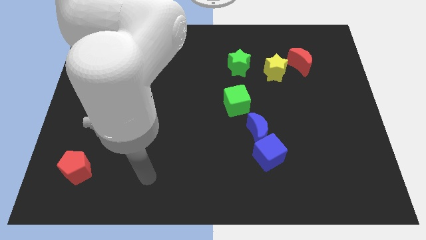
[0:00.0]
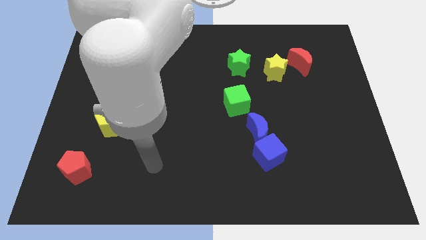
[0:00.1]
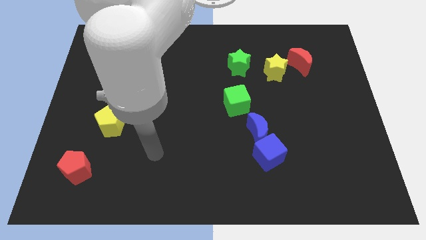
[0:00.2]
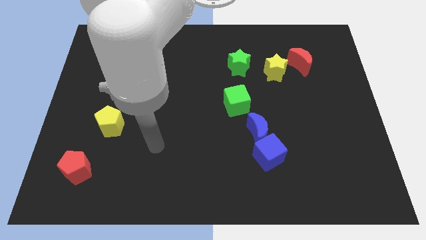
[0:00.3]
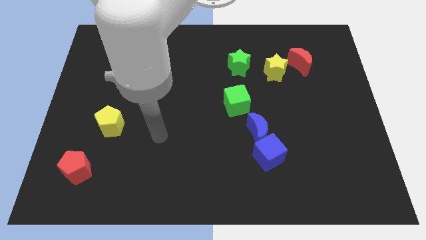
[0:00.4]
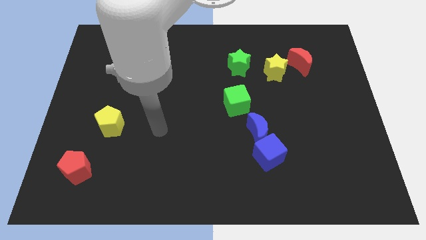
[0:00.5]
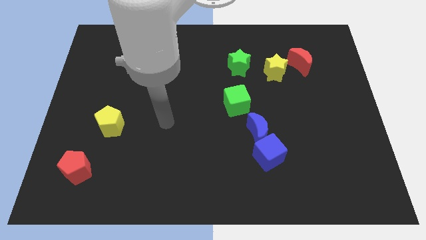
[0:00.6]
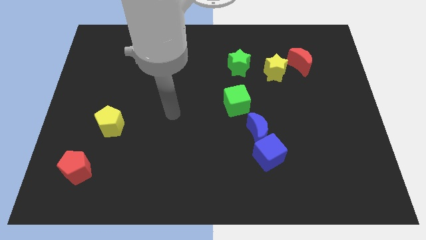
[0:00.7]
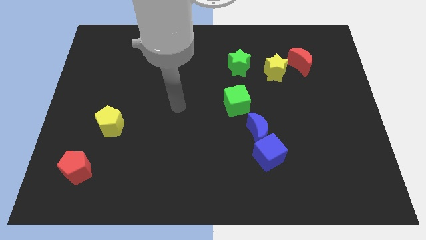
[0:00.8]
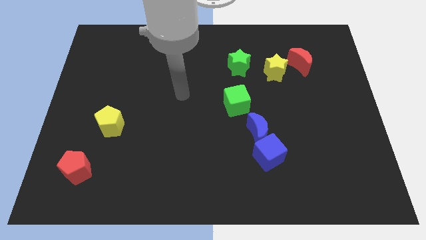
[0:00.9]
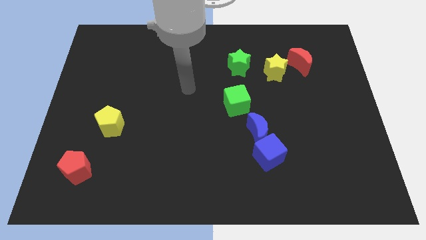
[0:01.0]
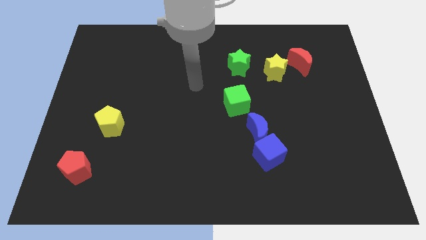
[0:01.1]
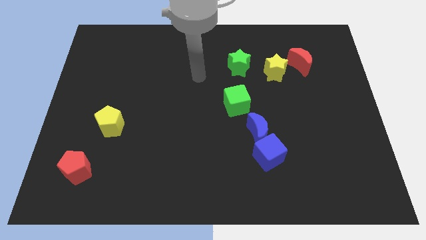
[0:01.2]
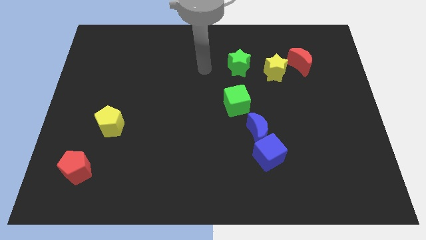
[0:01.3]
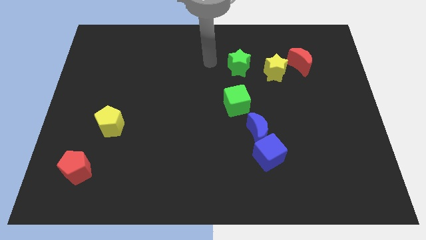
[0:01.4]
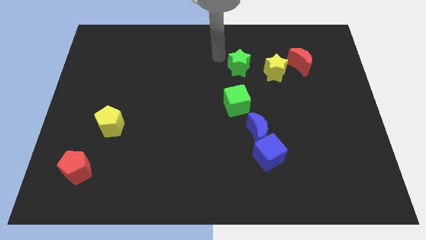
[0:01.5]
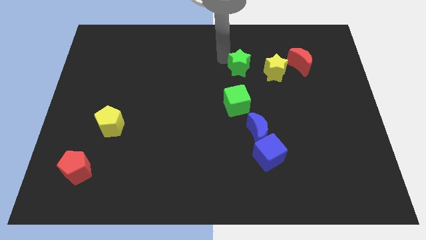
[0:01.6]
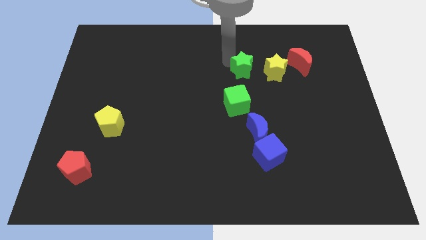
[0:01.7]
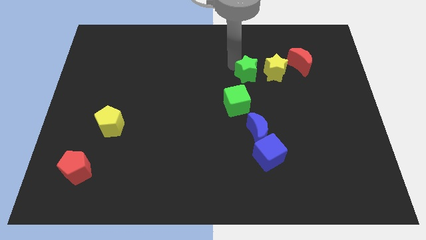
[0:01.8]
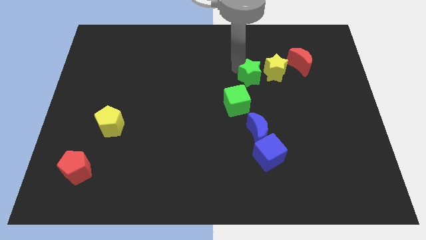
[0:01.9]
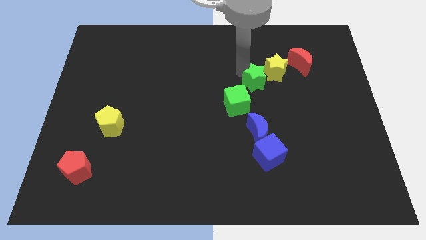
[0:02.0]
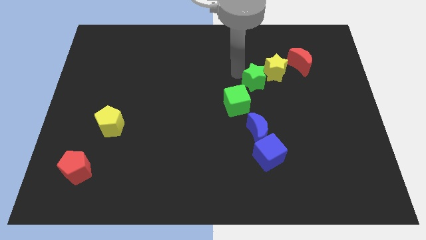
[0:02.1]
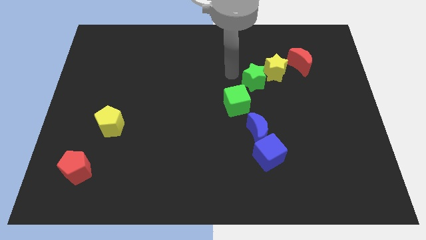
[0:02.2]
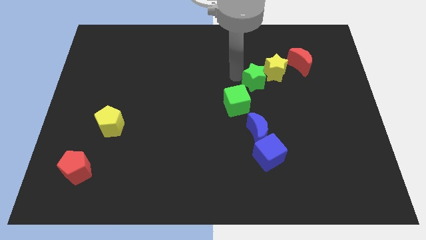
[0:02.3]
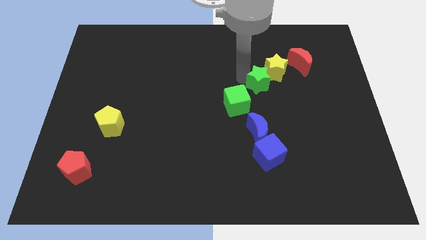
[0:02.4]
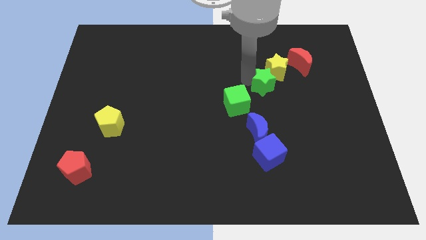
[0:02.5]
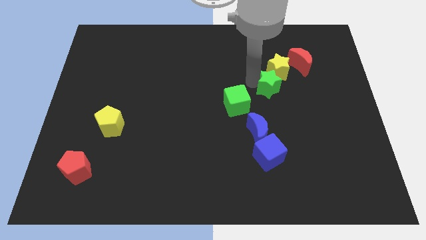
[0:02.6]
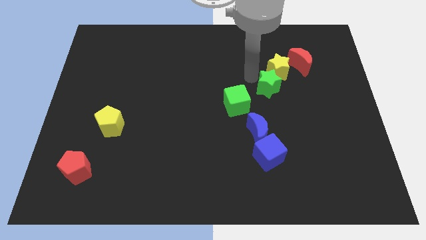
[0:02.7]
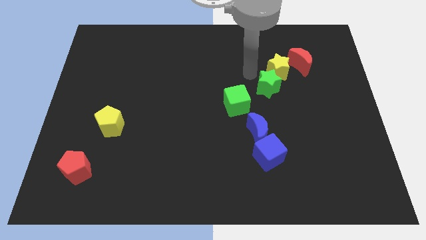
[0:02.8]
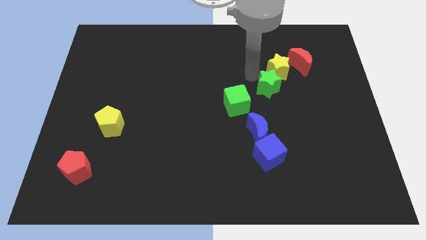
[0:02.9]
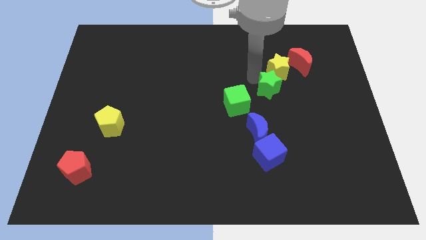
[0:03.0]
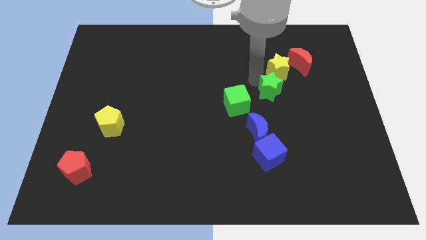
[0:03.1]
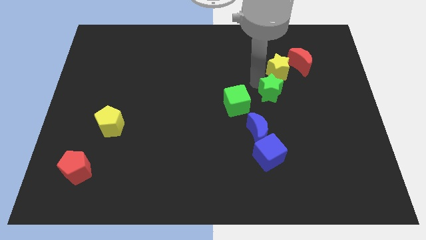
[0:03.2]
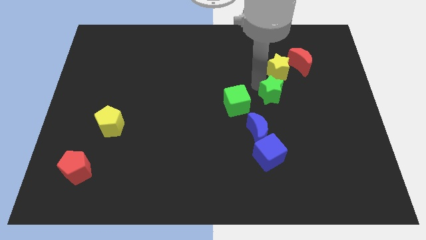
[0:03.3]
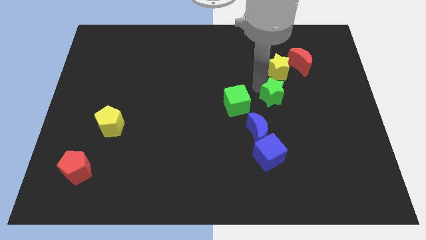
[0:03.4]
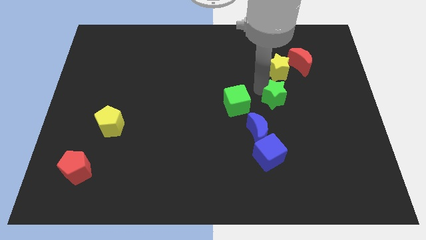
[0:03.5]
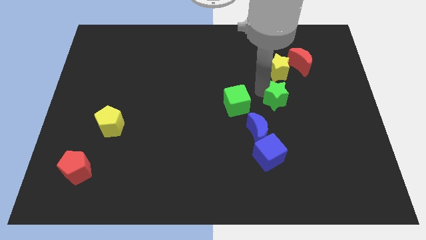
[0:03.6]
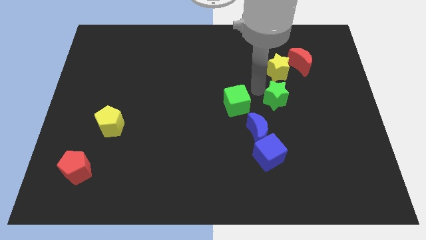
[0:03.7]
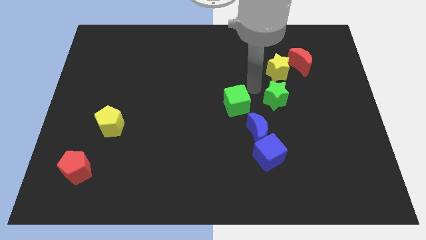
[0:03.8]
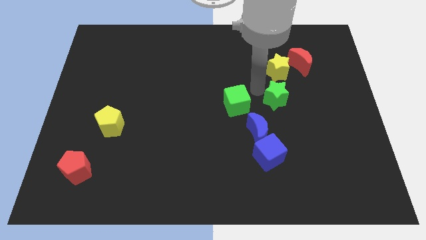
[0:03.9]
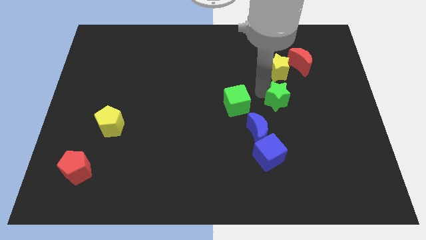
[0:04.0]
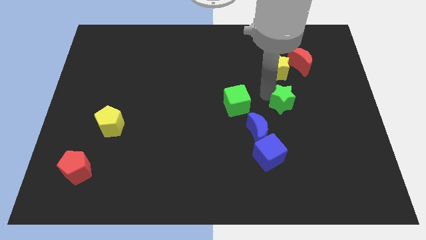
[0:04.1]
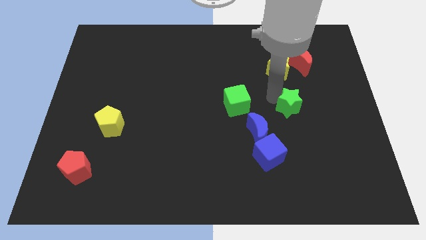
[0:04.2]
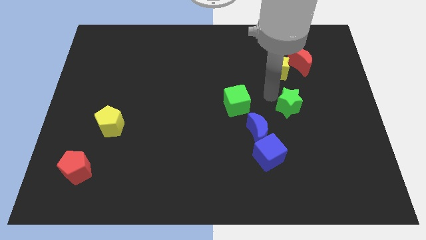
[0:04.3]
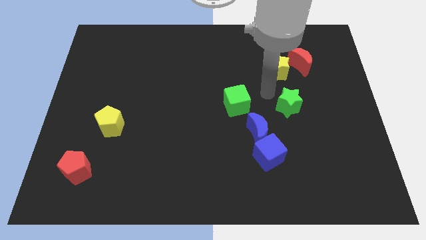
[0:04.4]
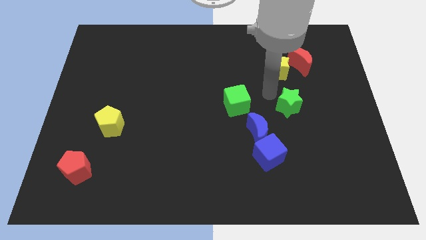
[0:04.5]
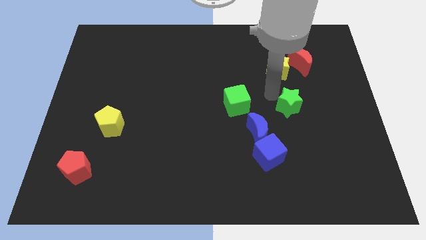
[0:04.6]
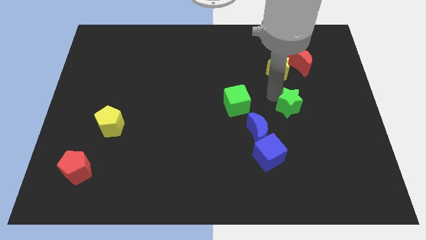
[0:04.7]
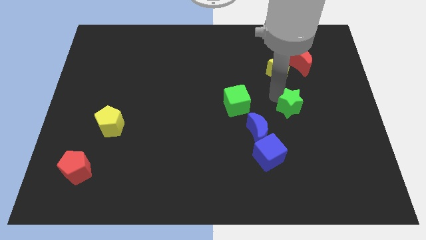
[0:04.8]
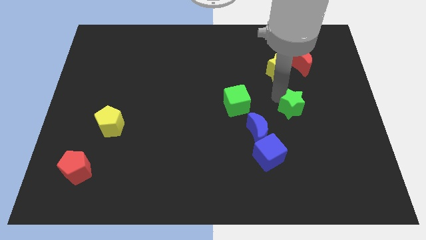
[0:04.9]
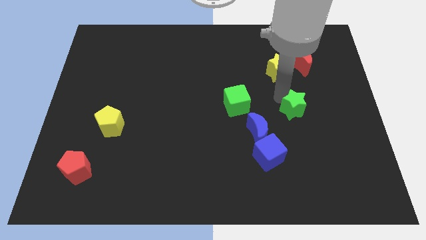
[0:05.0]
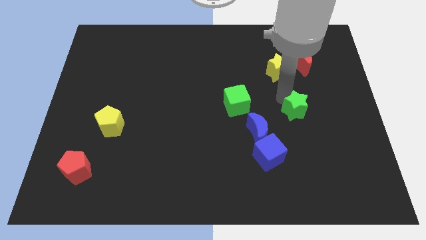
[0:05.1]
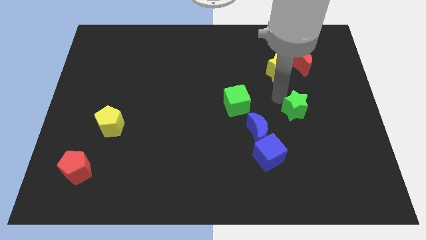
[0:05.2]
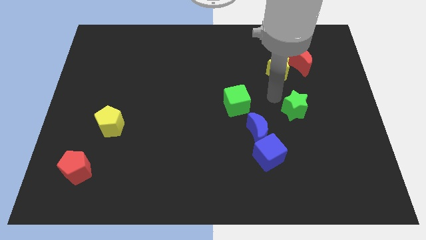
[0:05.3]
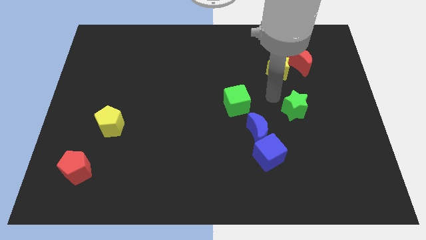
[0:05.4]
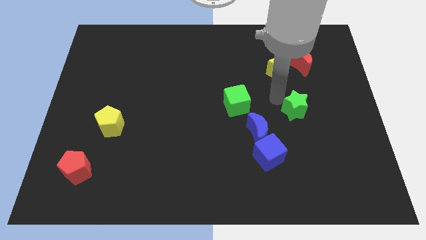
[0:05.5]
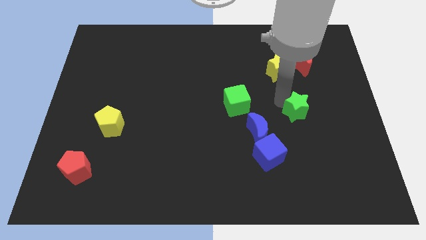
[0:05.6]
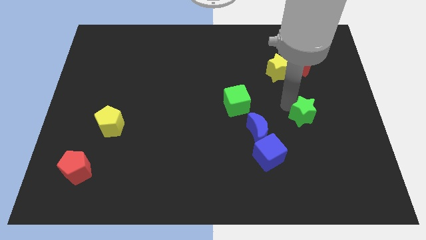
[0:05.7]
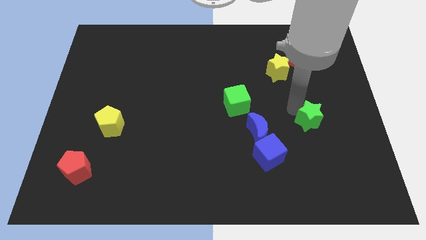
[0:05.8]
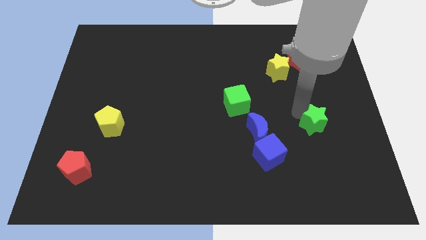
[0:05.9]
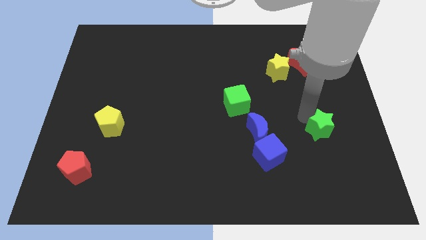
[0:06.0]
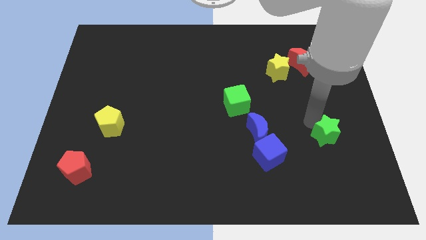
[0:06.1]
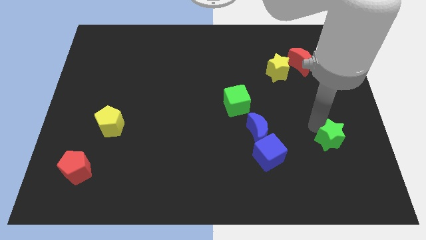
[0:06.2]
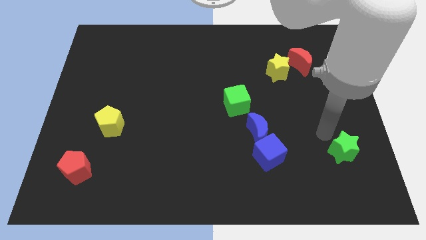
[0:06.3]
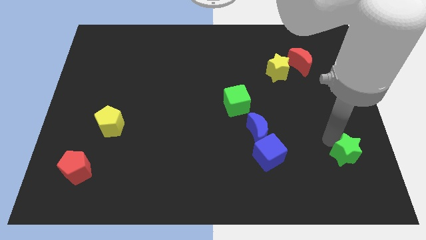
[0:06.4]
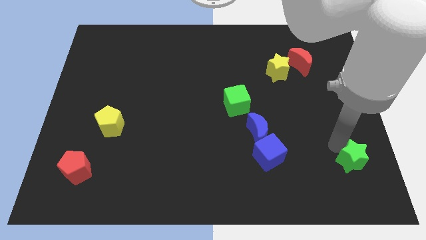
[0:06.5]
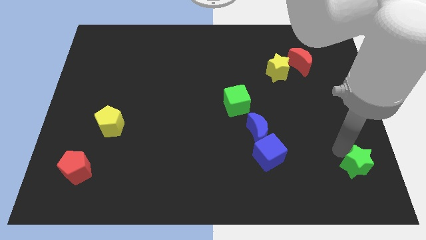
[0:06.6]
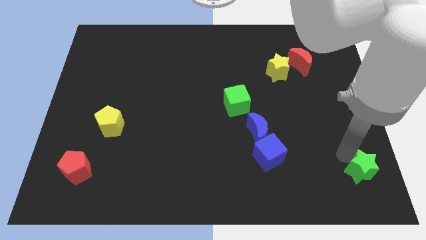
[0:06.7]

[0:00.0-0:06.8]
put the green star to the bottom right corner

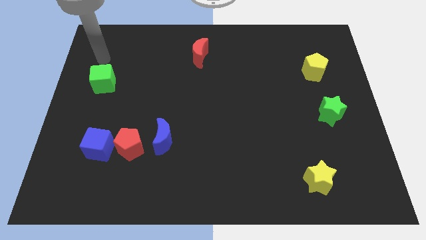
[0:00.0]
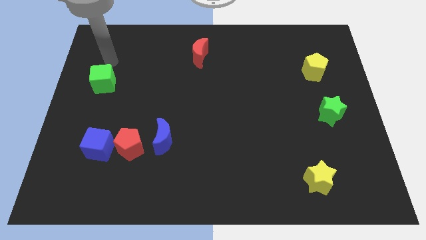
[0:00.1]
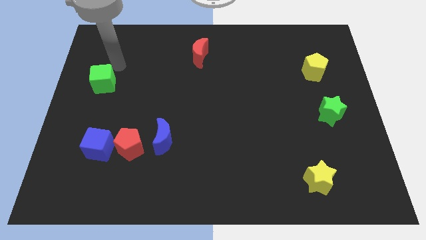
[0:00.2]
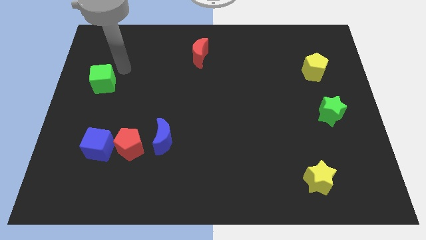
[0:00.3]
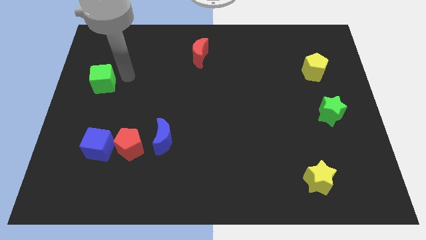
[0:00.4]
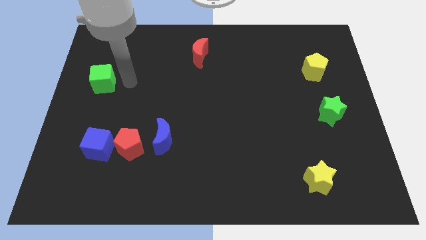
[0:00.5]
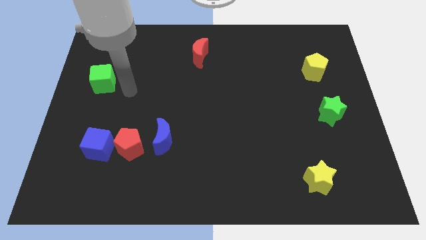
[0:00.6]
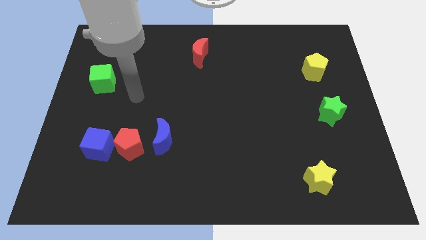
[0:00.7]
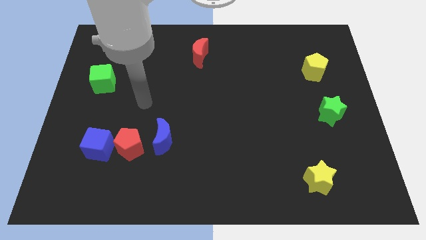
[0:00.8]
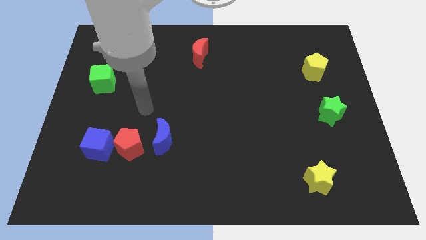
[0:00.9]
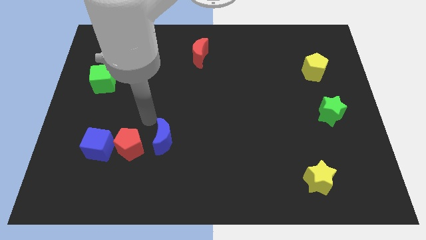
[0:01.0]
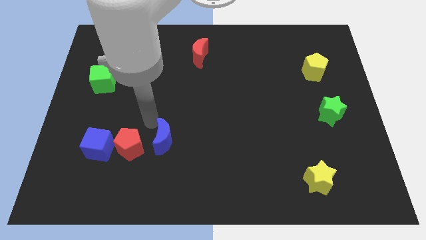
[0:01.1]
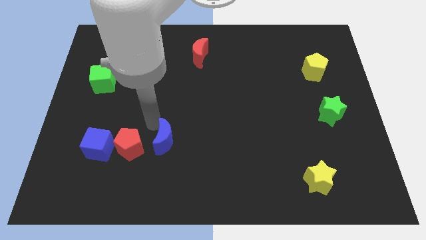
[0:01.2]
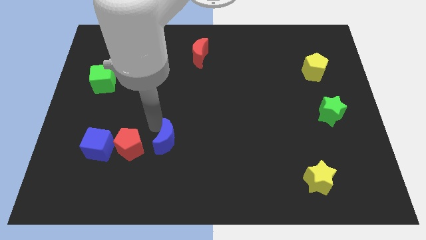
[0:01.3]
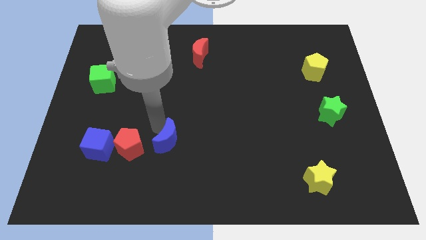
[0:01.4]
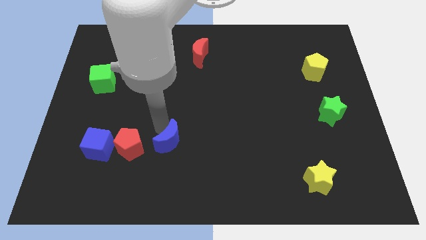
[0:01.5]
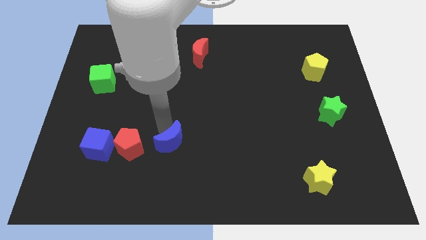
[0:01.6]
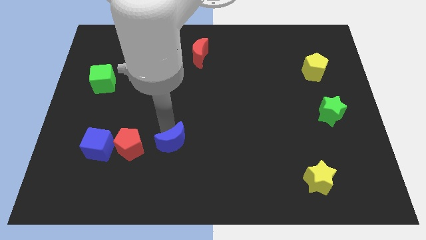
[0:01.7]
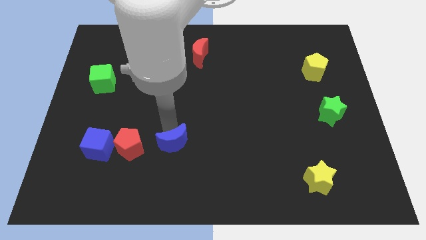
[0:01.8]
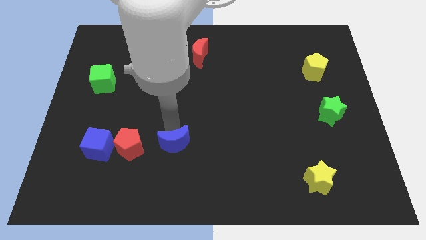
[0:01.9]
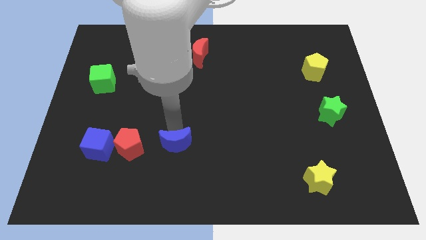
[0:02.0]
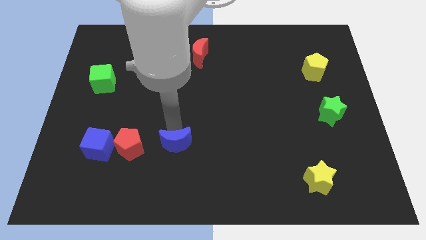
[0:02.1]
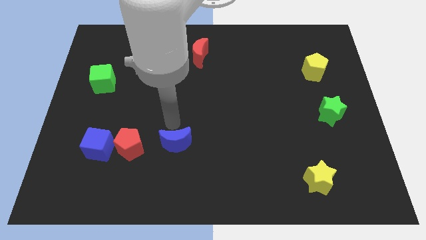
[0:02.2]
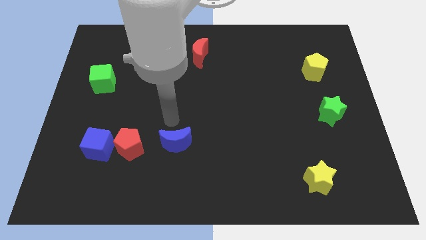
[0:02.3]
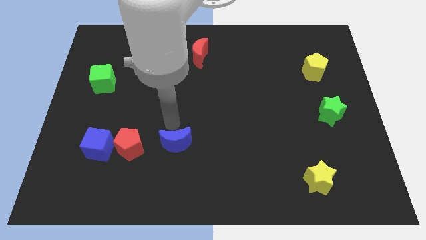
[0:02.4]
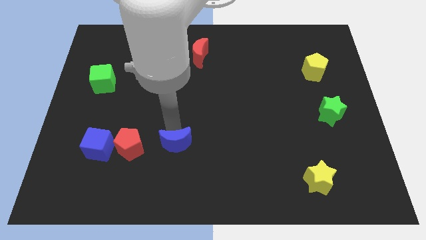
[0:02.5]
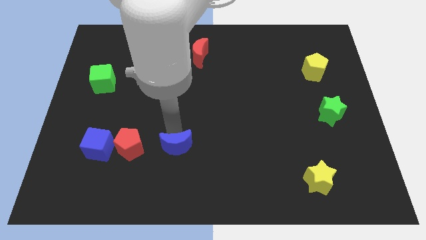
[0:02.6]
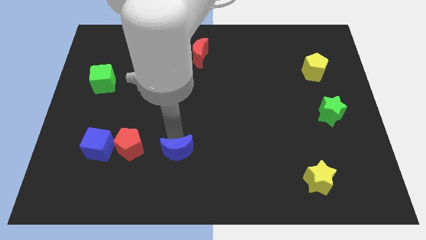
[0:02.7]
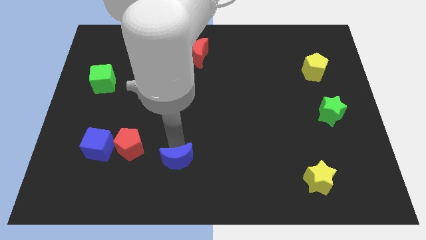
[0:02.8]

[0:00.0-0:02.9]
move the blue moon to the bottom
